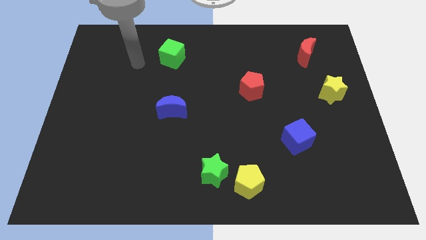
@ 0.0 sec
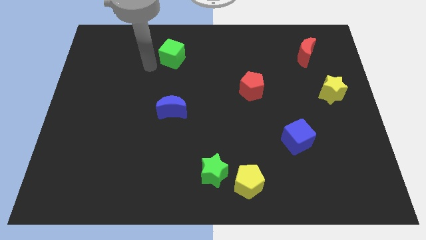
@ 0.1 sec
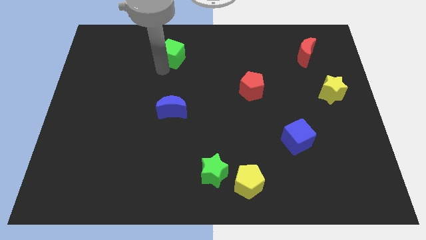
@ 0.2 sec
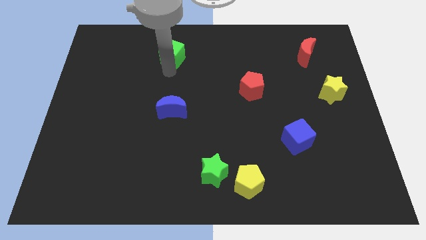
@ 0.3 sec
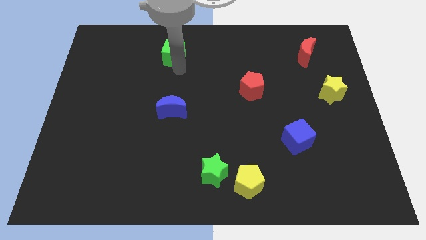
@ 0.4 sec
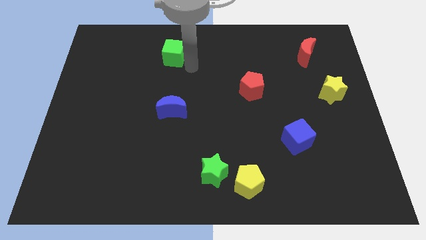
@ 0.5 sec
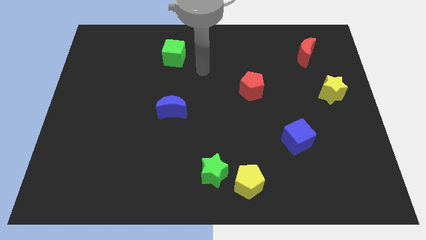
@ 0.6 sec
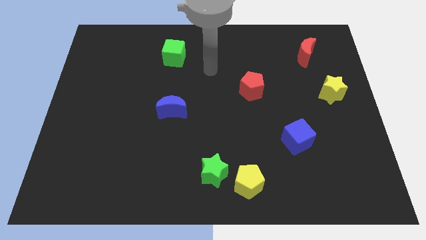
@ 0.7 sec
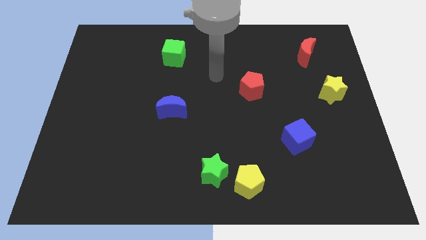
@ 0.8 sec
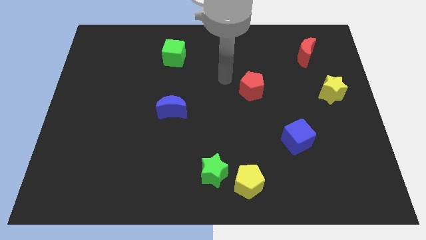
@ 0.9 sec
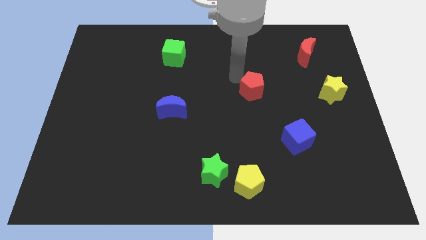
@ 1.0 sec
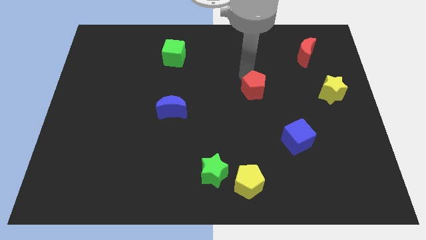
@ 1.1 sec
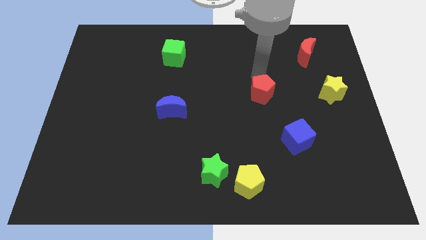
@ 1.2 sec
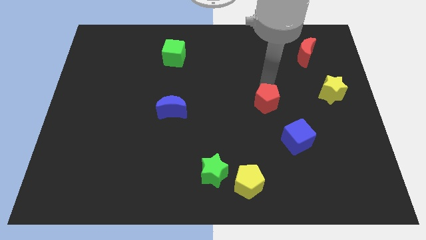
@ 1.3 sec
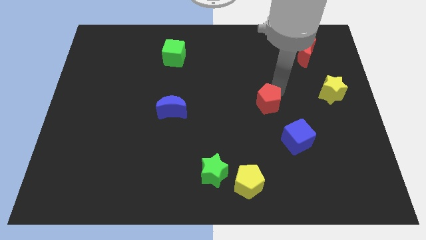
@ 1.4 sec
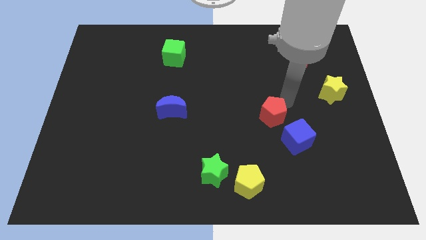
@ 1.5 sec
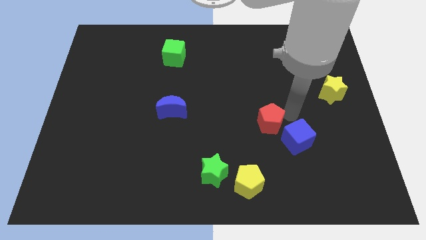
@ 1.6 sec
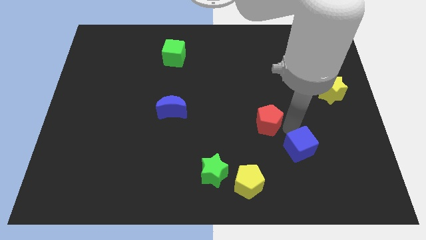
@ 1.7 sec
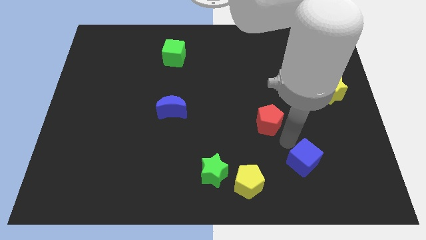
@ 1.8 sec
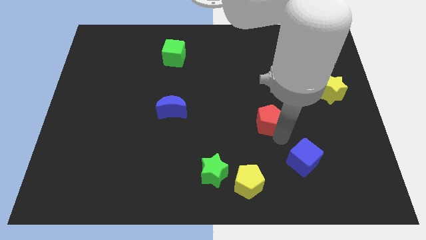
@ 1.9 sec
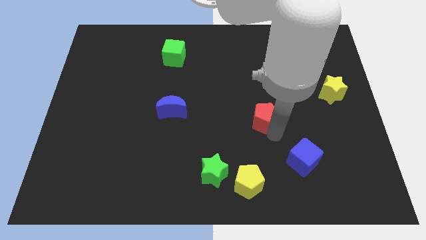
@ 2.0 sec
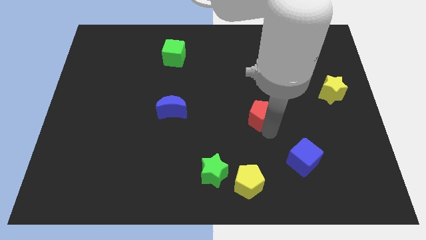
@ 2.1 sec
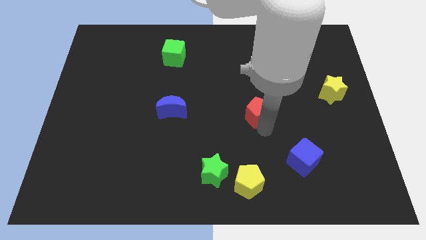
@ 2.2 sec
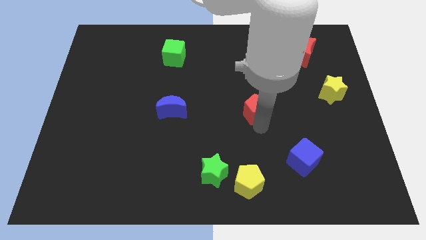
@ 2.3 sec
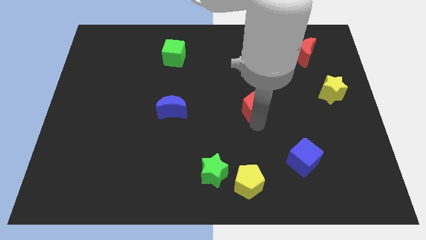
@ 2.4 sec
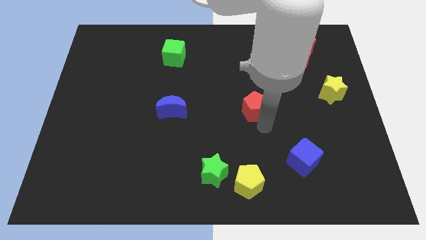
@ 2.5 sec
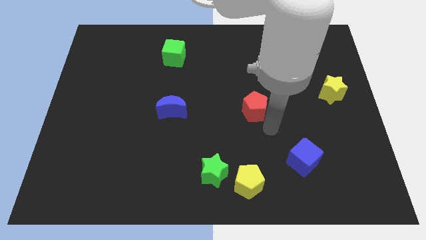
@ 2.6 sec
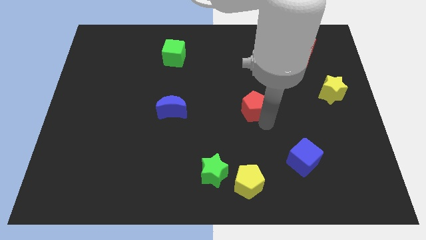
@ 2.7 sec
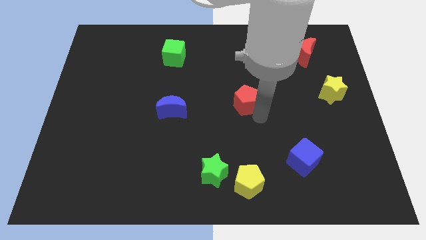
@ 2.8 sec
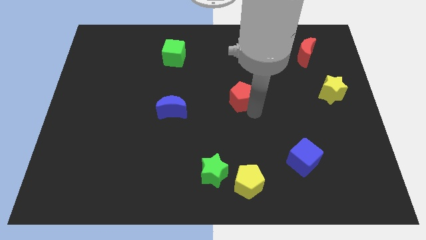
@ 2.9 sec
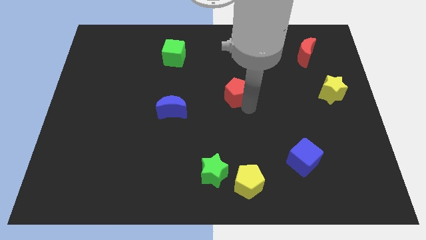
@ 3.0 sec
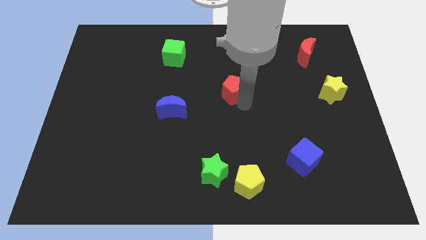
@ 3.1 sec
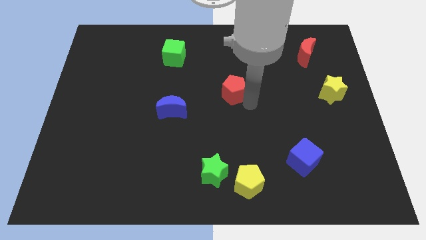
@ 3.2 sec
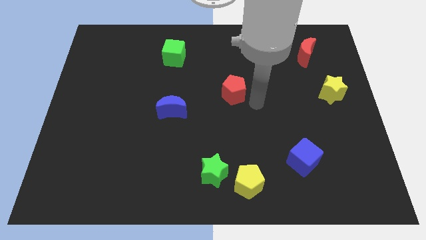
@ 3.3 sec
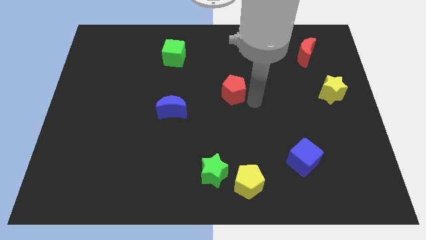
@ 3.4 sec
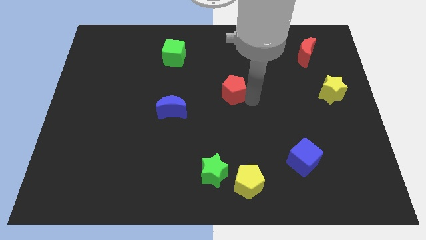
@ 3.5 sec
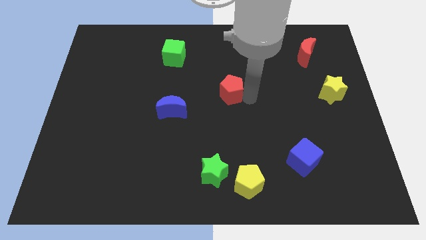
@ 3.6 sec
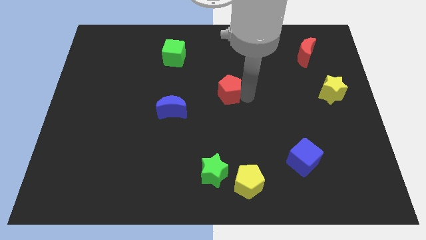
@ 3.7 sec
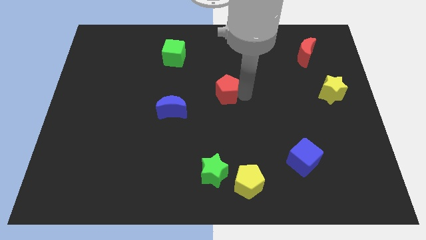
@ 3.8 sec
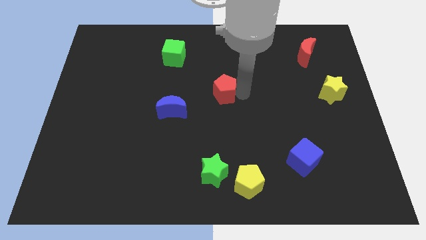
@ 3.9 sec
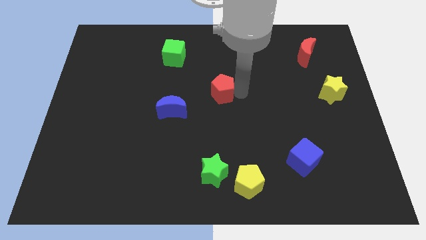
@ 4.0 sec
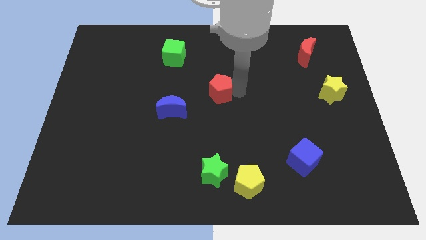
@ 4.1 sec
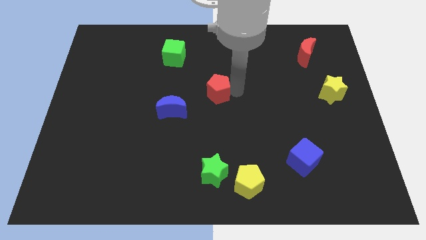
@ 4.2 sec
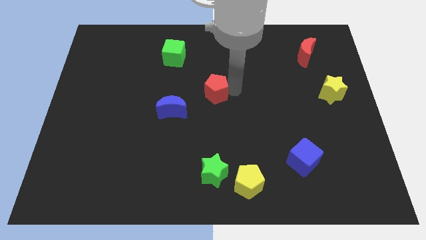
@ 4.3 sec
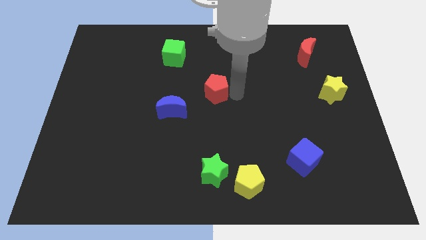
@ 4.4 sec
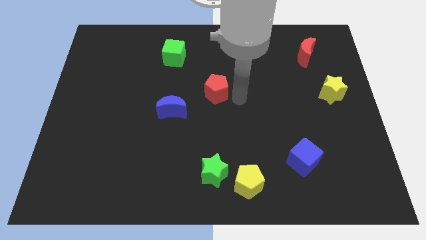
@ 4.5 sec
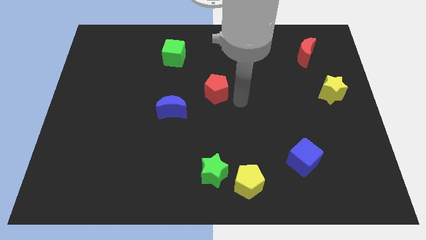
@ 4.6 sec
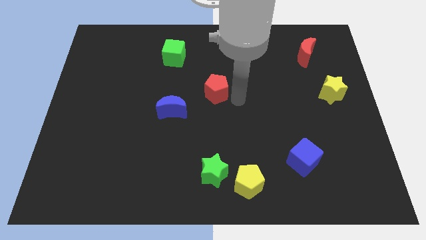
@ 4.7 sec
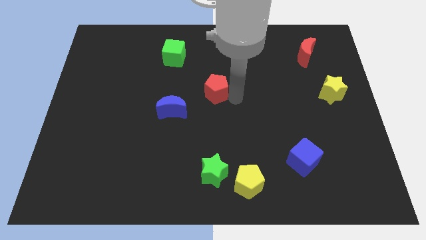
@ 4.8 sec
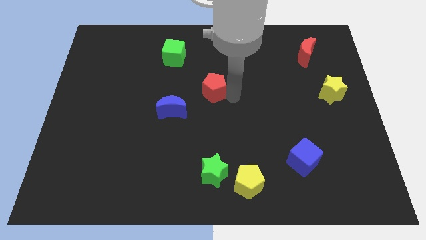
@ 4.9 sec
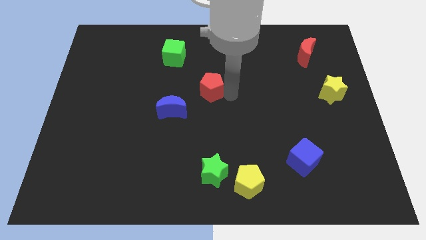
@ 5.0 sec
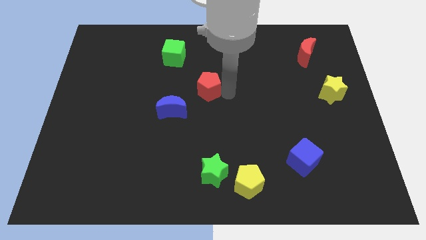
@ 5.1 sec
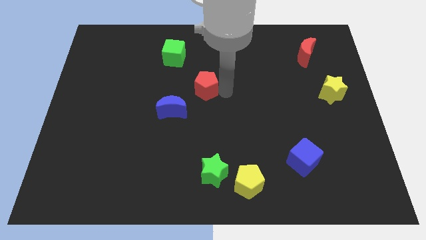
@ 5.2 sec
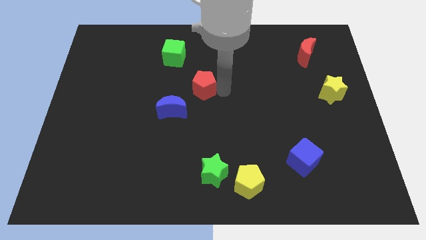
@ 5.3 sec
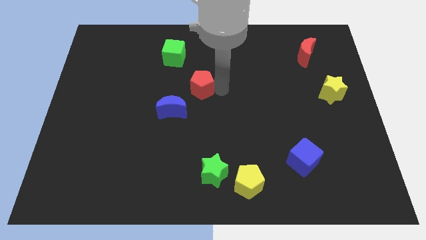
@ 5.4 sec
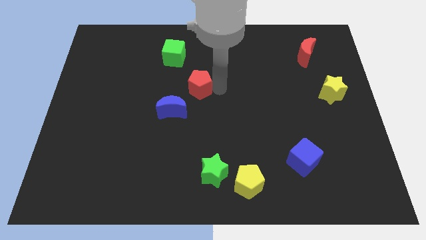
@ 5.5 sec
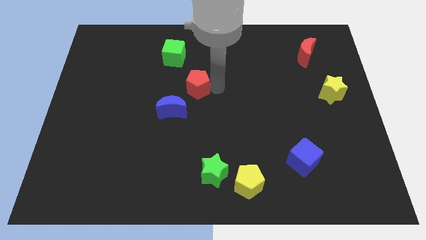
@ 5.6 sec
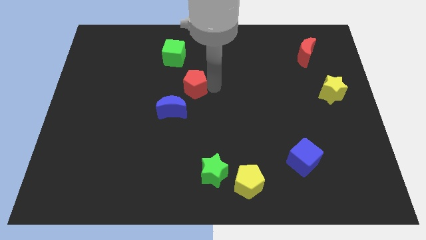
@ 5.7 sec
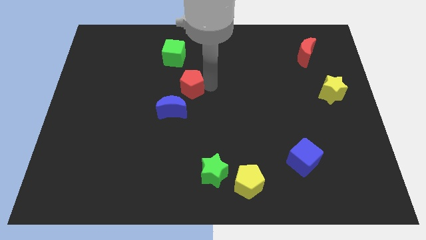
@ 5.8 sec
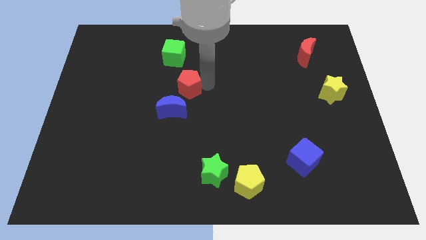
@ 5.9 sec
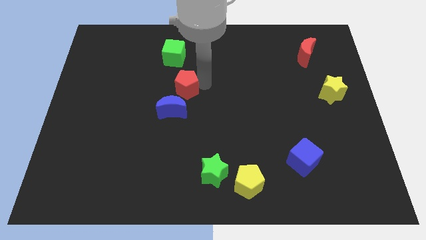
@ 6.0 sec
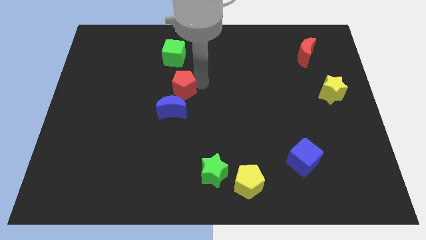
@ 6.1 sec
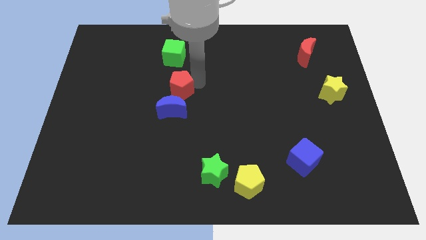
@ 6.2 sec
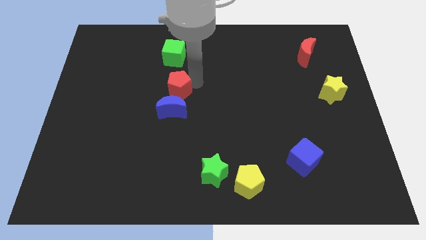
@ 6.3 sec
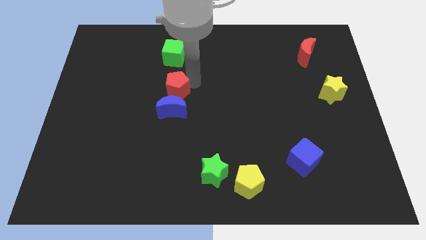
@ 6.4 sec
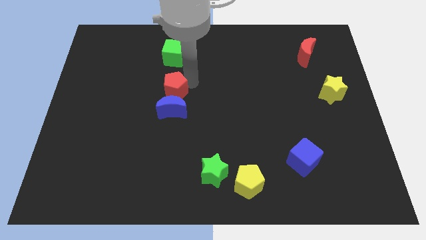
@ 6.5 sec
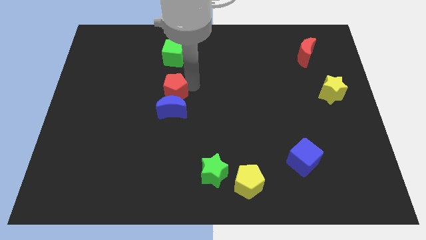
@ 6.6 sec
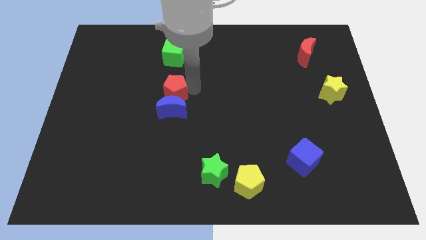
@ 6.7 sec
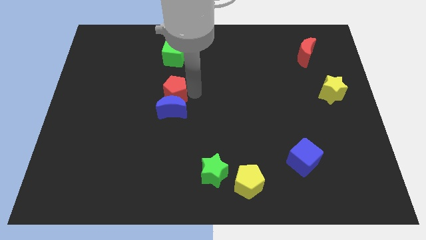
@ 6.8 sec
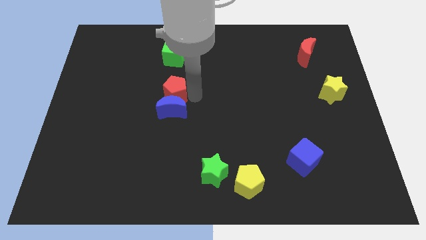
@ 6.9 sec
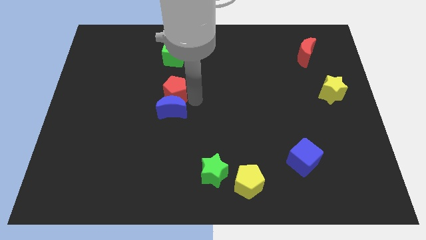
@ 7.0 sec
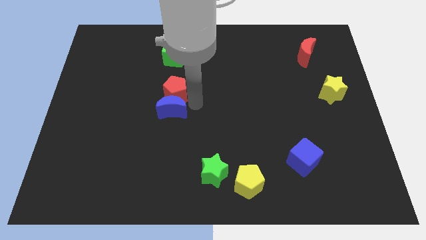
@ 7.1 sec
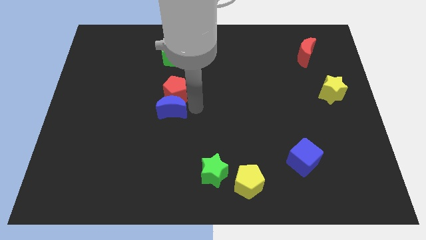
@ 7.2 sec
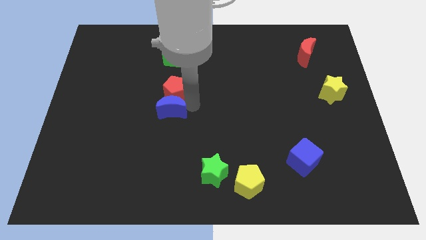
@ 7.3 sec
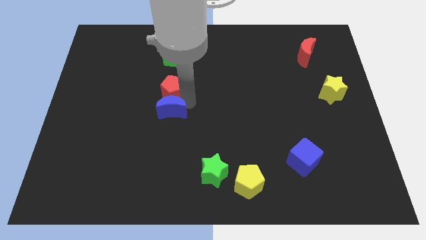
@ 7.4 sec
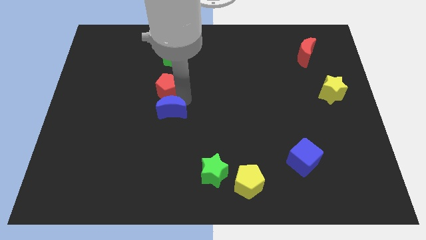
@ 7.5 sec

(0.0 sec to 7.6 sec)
push the red pentagon to the left

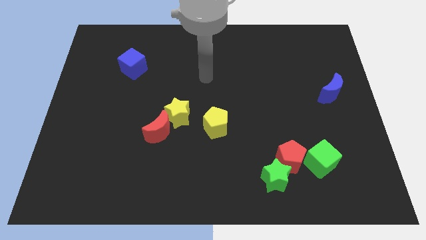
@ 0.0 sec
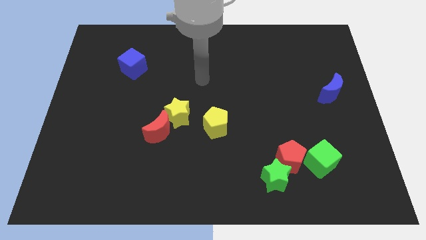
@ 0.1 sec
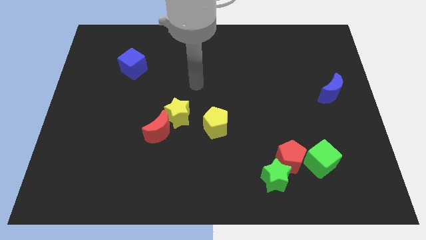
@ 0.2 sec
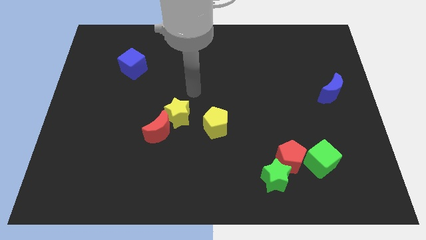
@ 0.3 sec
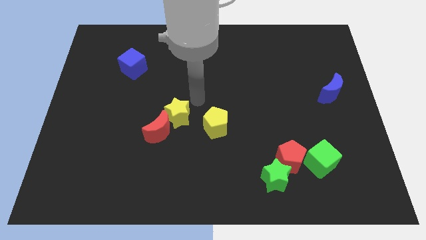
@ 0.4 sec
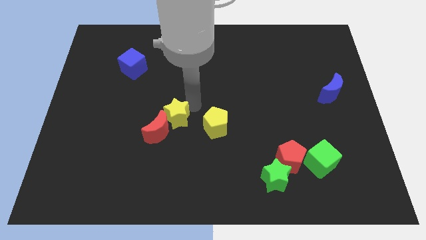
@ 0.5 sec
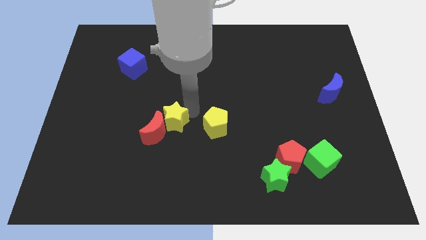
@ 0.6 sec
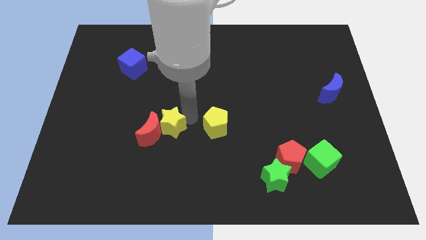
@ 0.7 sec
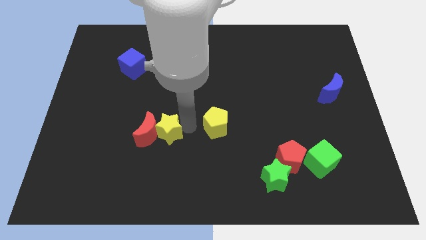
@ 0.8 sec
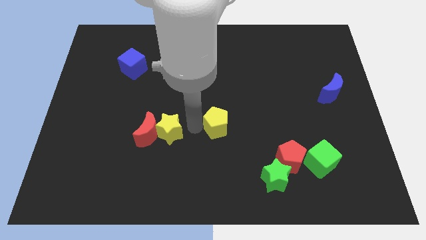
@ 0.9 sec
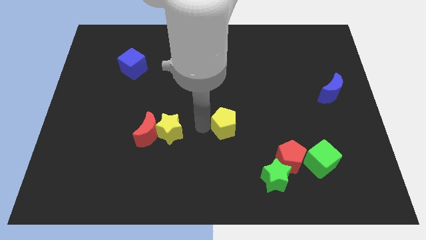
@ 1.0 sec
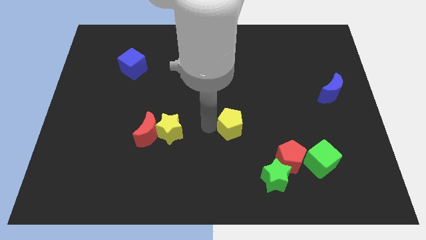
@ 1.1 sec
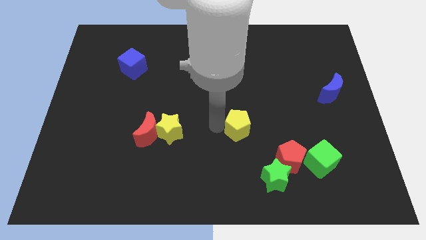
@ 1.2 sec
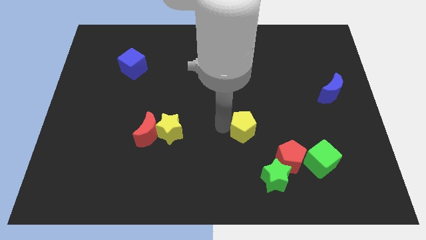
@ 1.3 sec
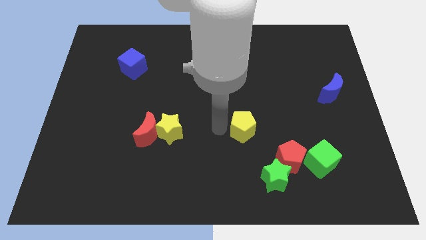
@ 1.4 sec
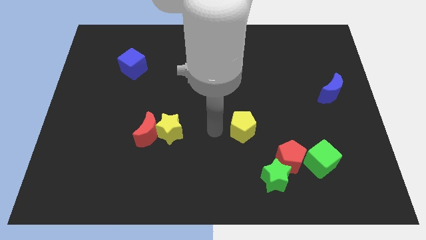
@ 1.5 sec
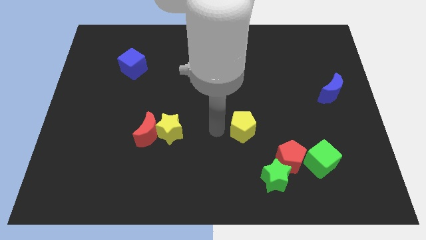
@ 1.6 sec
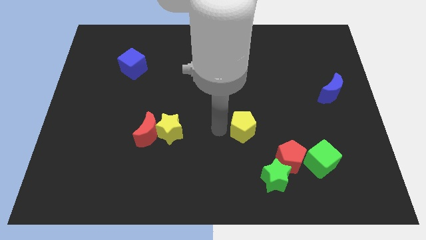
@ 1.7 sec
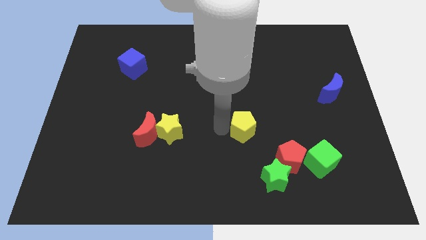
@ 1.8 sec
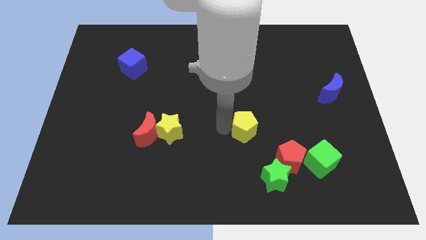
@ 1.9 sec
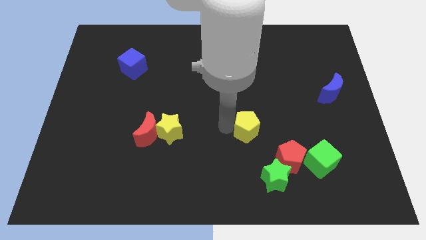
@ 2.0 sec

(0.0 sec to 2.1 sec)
slide the yellow pentagon right a little bit
